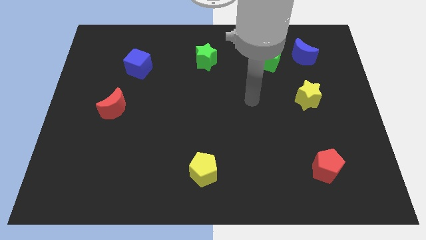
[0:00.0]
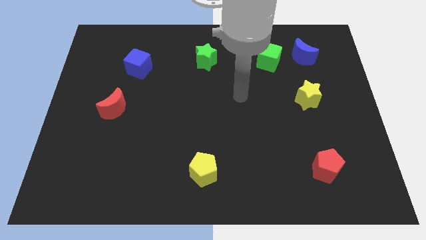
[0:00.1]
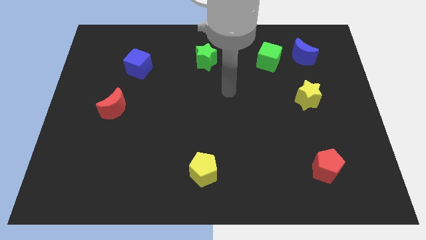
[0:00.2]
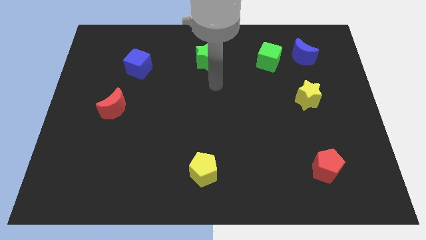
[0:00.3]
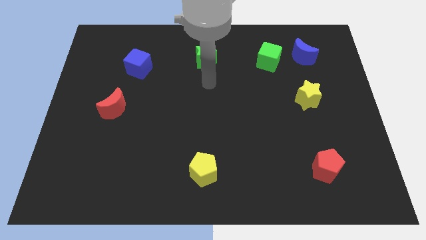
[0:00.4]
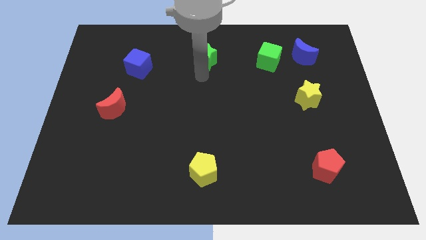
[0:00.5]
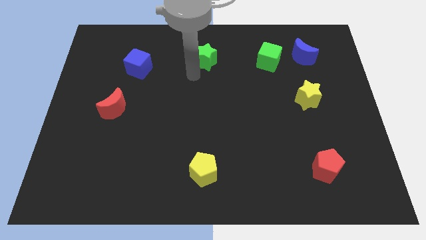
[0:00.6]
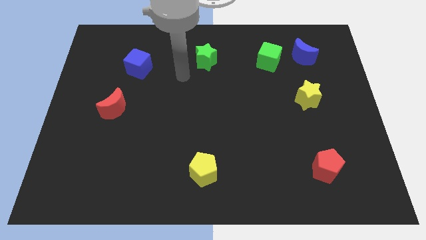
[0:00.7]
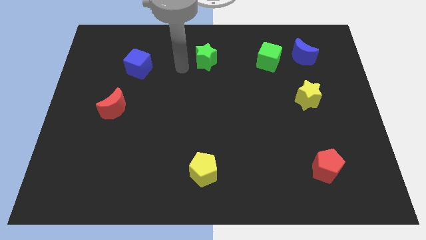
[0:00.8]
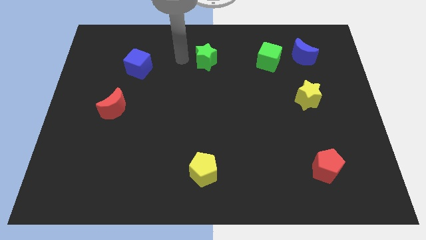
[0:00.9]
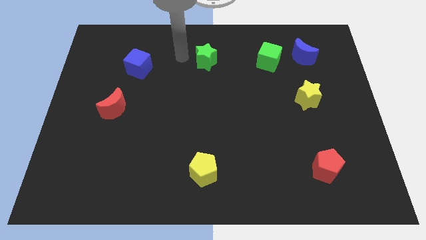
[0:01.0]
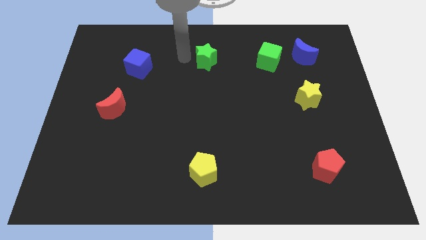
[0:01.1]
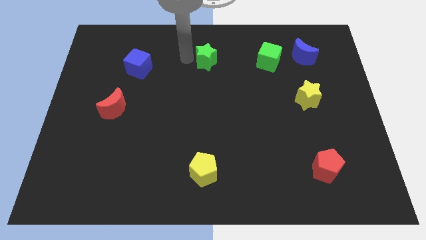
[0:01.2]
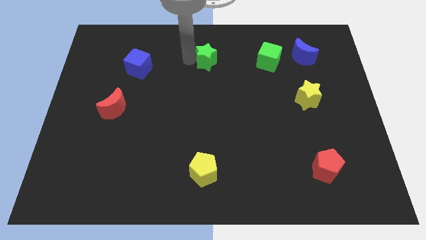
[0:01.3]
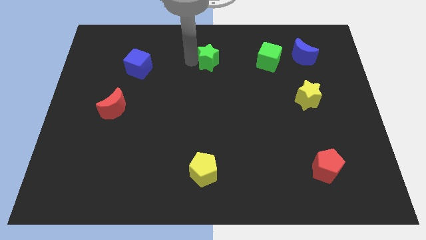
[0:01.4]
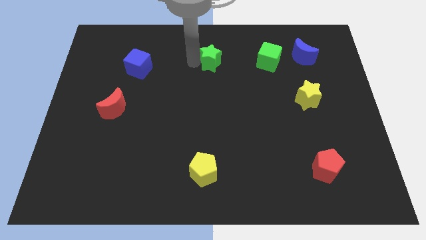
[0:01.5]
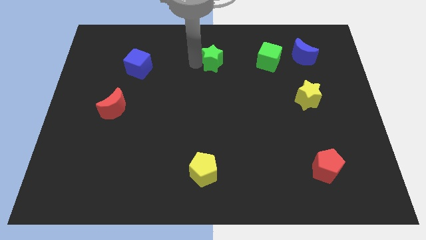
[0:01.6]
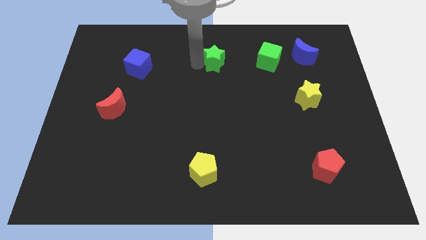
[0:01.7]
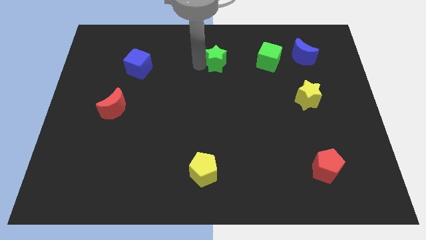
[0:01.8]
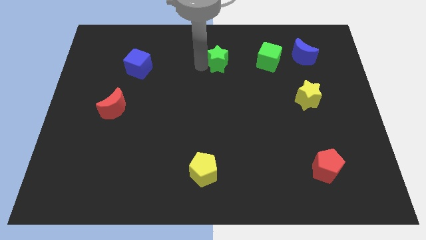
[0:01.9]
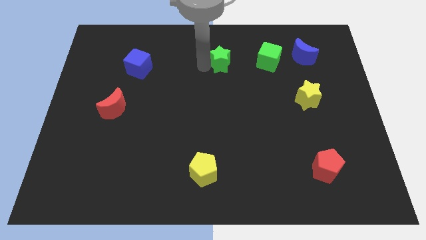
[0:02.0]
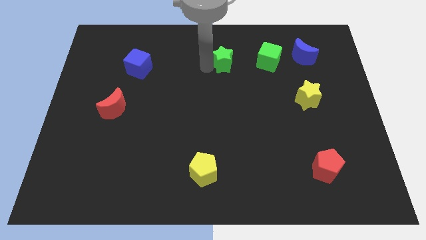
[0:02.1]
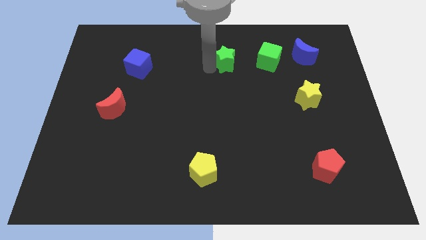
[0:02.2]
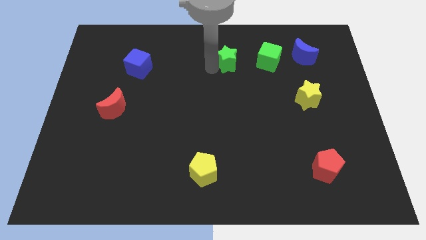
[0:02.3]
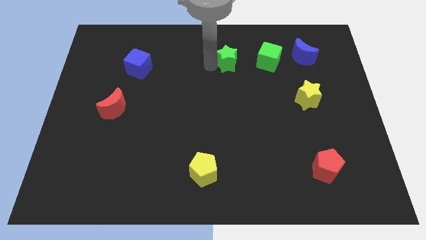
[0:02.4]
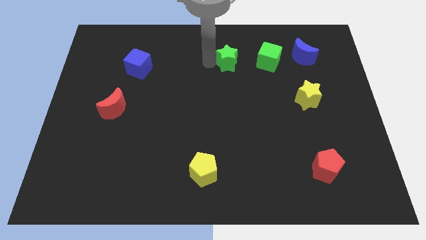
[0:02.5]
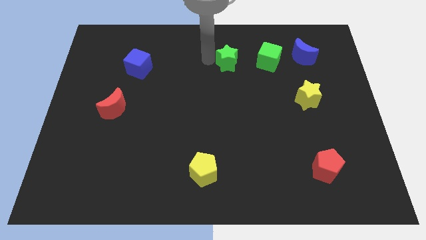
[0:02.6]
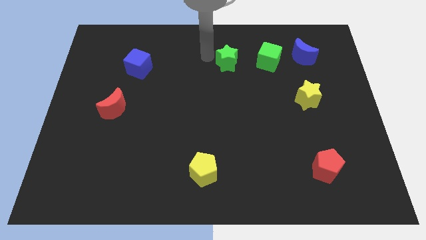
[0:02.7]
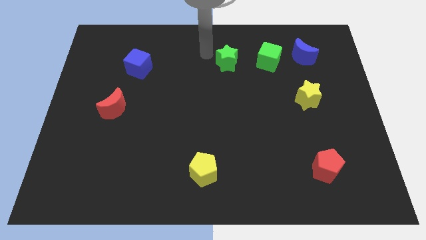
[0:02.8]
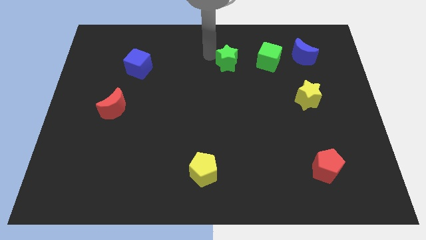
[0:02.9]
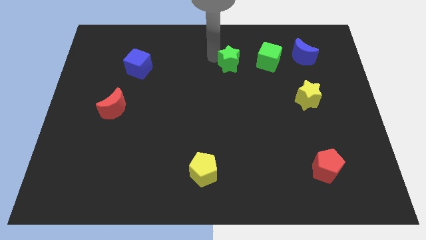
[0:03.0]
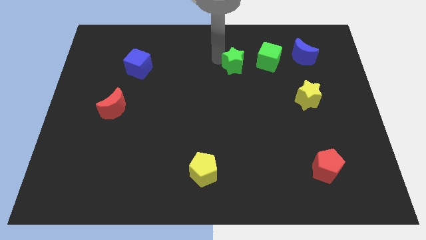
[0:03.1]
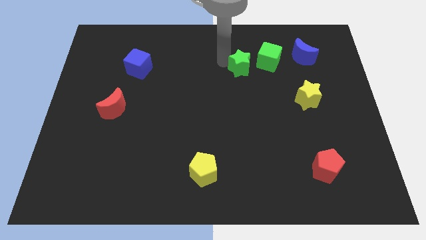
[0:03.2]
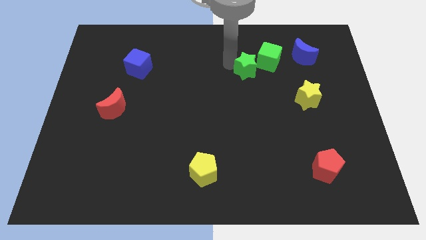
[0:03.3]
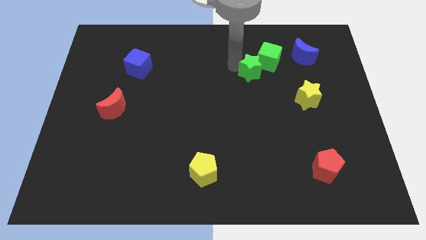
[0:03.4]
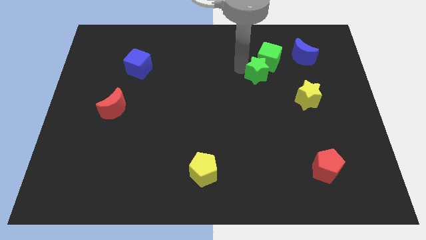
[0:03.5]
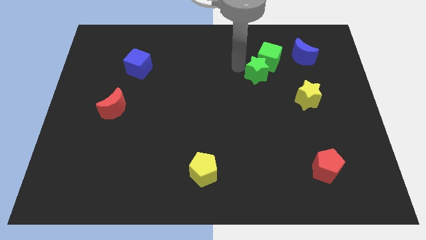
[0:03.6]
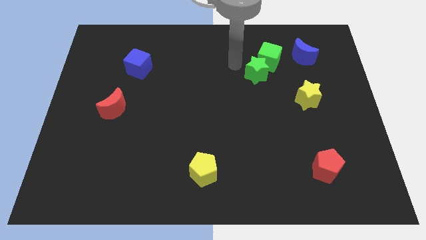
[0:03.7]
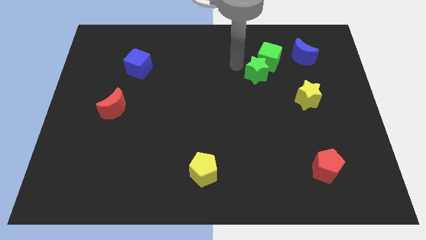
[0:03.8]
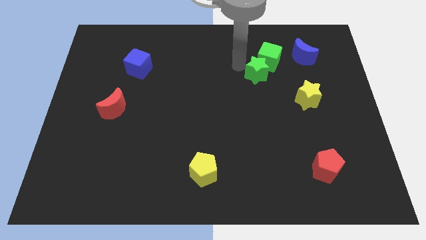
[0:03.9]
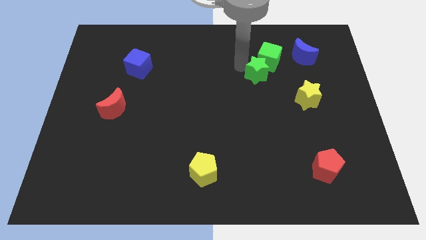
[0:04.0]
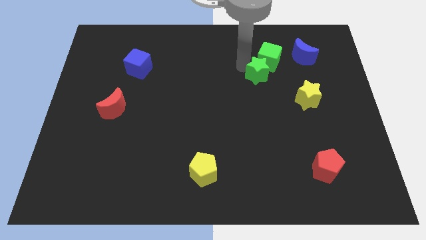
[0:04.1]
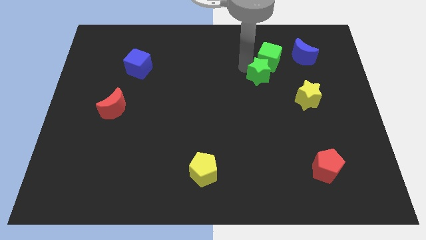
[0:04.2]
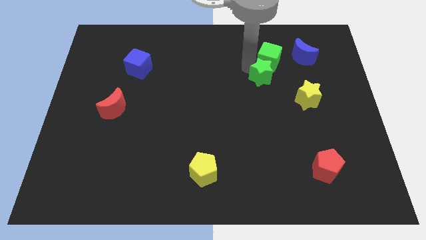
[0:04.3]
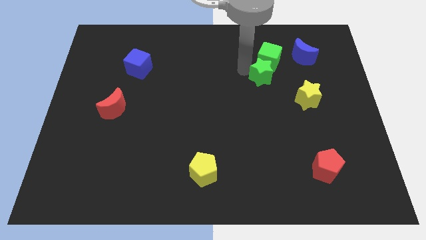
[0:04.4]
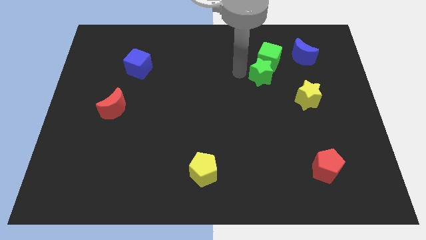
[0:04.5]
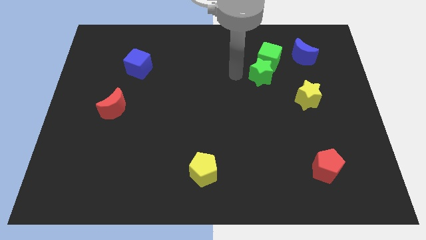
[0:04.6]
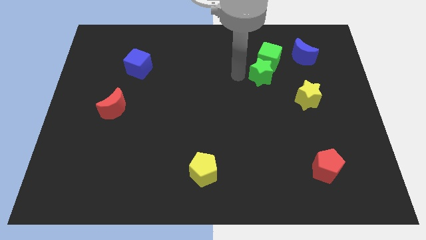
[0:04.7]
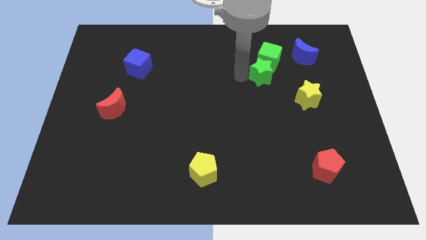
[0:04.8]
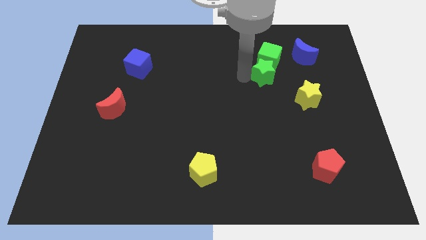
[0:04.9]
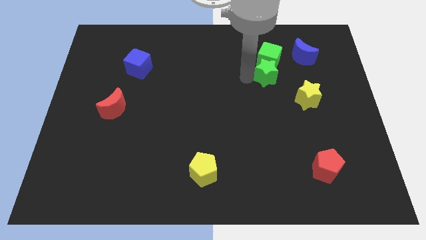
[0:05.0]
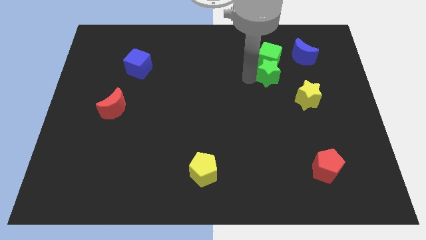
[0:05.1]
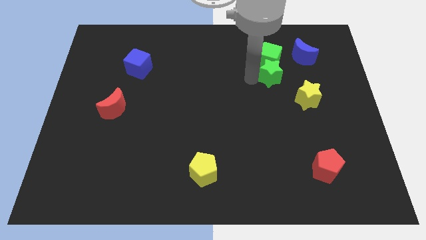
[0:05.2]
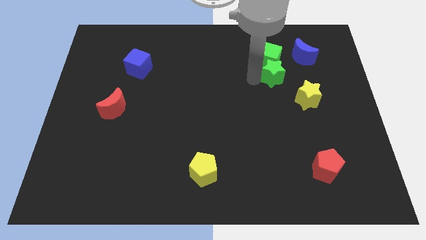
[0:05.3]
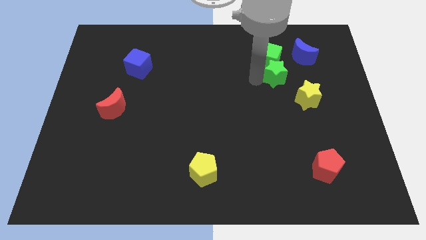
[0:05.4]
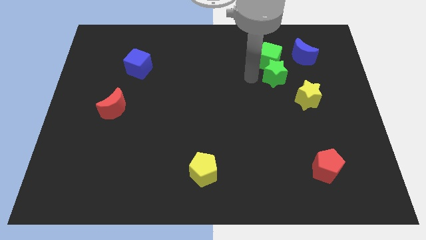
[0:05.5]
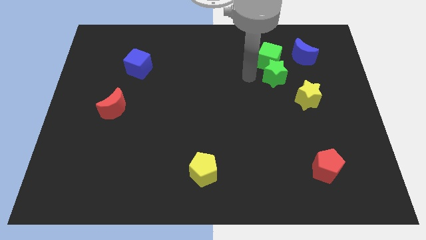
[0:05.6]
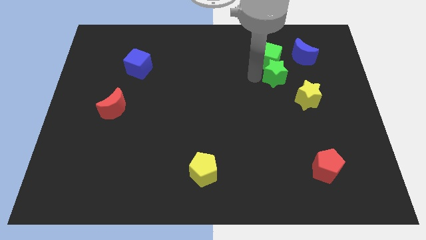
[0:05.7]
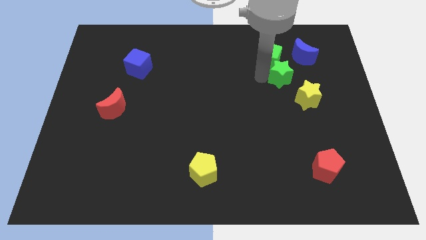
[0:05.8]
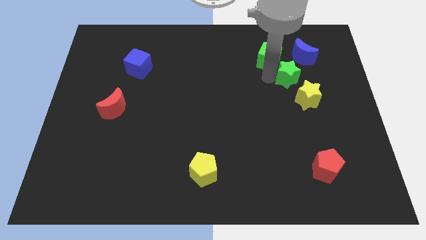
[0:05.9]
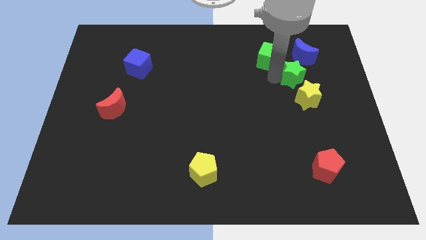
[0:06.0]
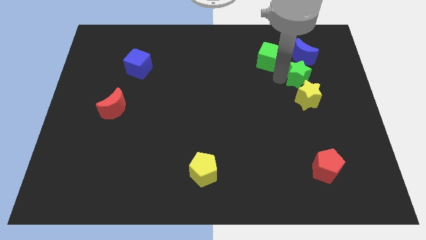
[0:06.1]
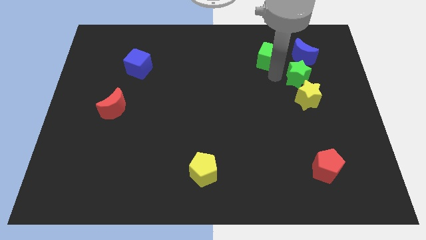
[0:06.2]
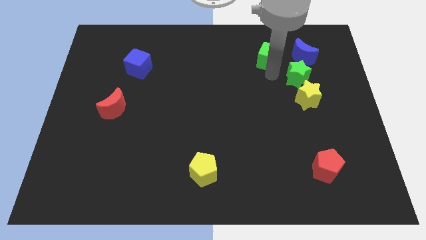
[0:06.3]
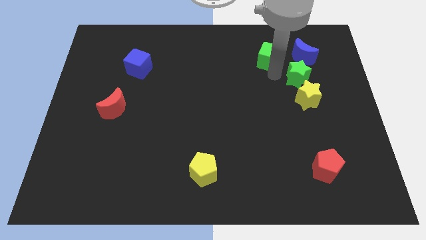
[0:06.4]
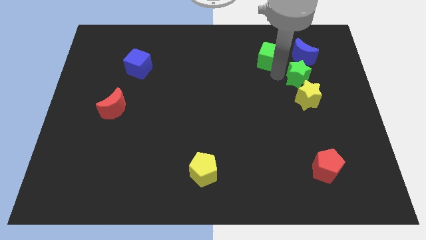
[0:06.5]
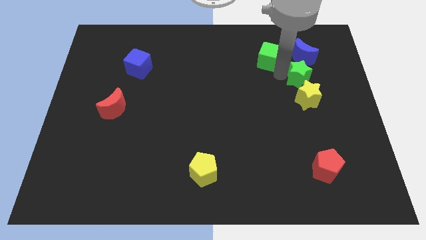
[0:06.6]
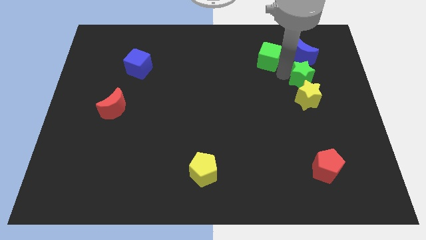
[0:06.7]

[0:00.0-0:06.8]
slide the green star to the top right side of the yellow star

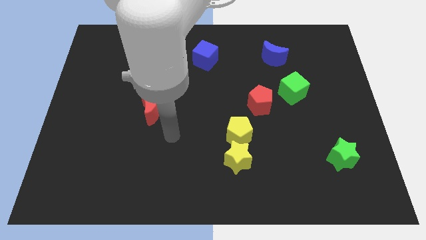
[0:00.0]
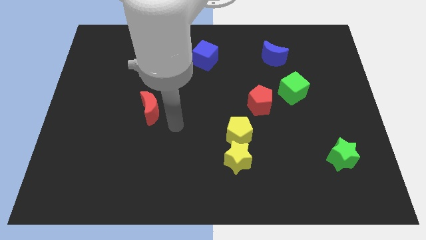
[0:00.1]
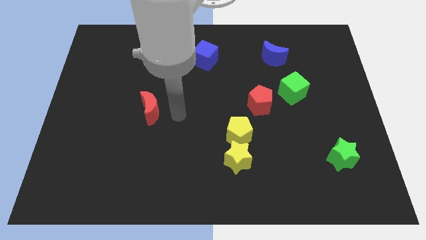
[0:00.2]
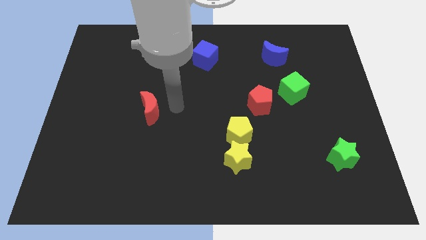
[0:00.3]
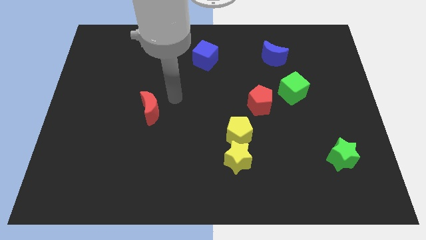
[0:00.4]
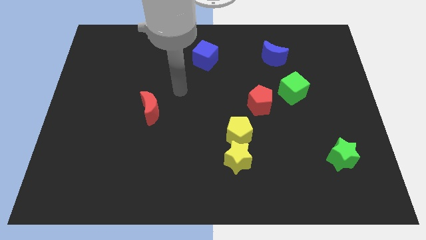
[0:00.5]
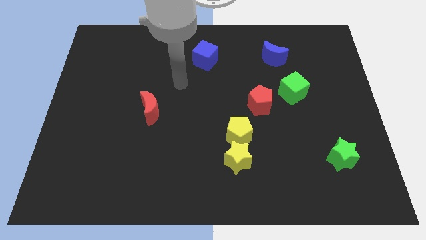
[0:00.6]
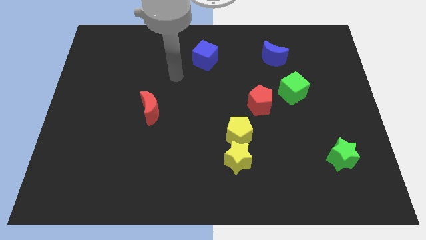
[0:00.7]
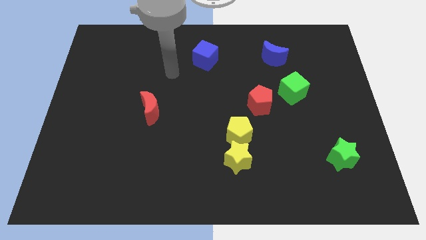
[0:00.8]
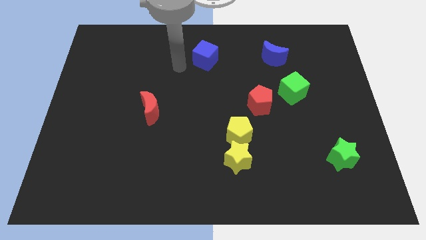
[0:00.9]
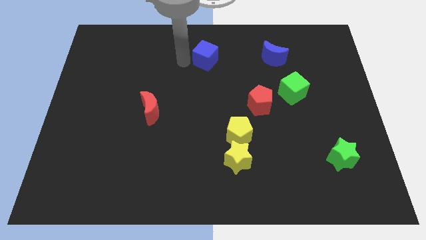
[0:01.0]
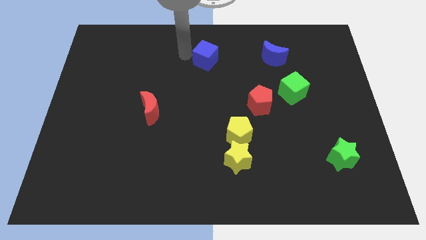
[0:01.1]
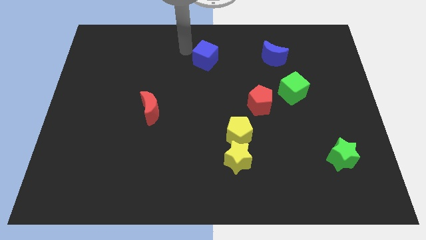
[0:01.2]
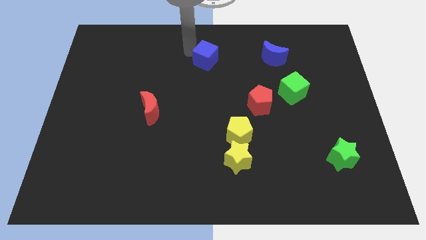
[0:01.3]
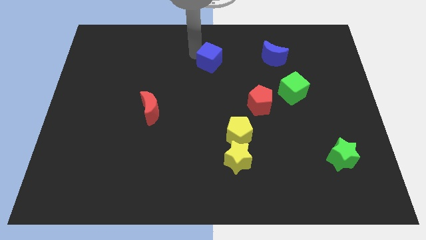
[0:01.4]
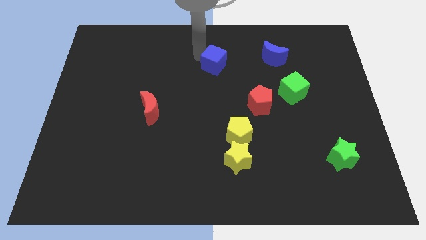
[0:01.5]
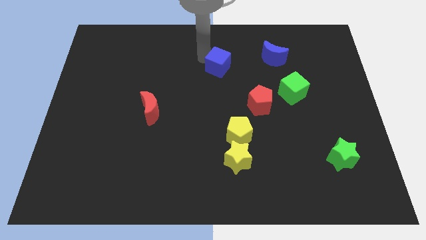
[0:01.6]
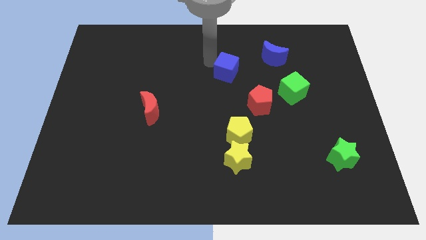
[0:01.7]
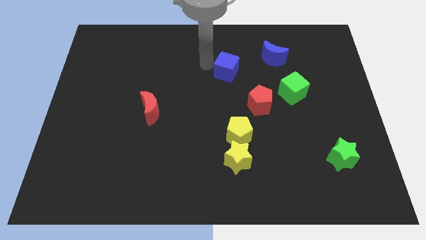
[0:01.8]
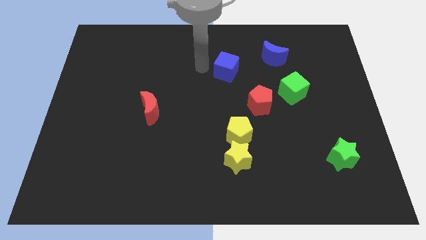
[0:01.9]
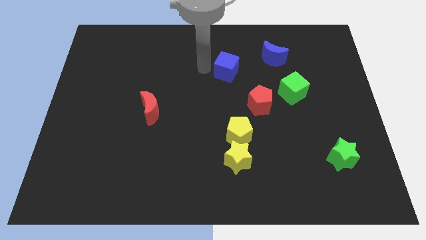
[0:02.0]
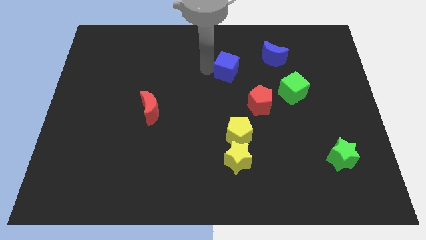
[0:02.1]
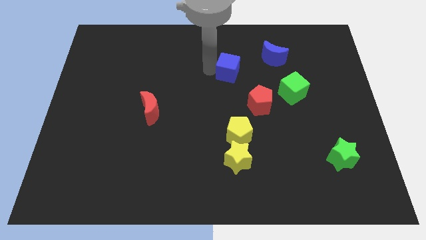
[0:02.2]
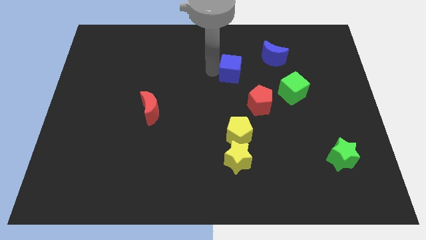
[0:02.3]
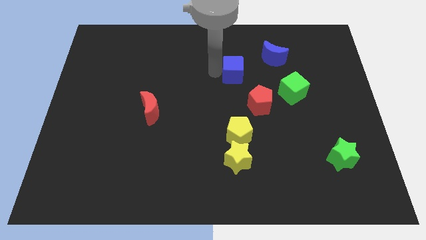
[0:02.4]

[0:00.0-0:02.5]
slide the blue cube to the bottom left side of the blue moon
